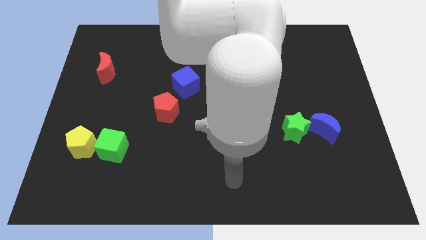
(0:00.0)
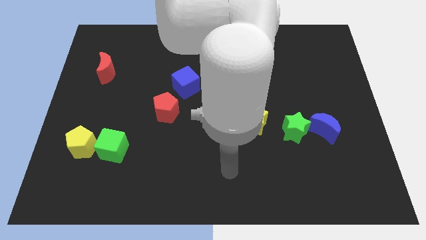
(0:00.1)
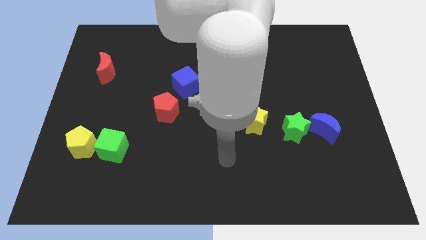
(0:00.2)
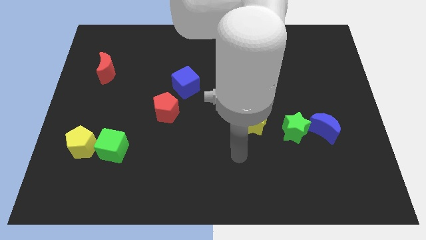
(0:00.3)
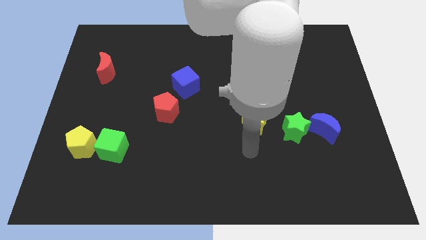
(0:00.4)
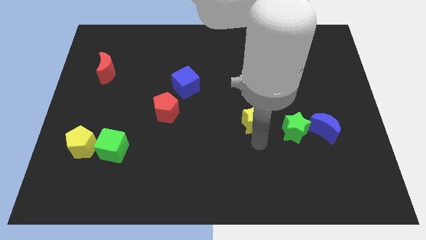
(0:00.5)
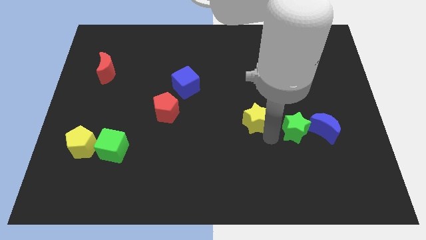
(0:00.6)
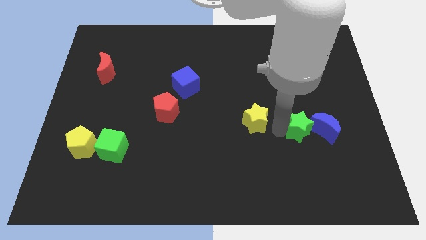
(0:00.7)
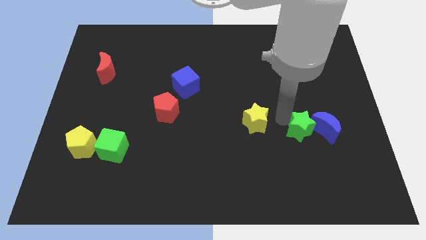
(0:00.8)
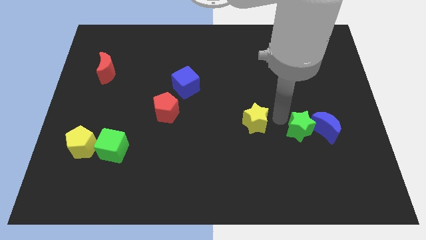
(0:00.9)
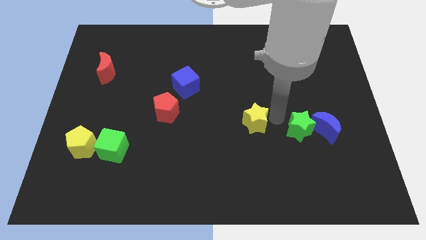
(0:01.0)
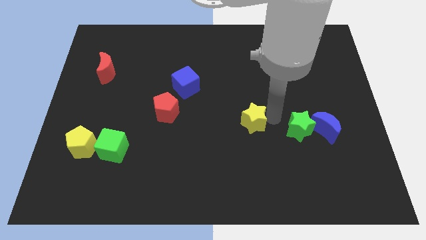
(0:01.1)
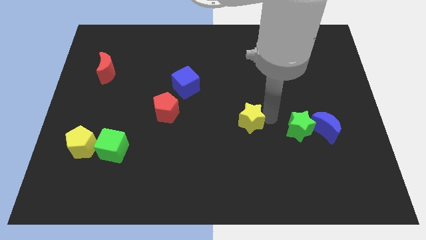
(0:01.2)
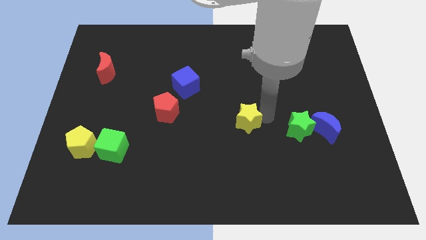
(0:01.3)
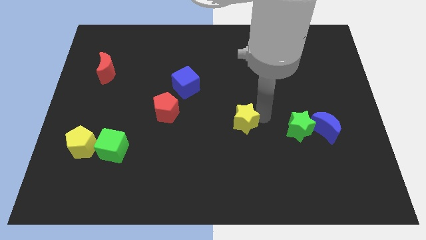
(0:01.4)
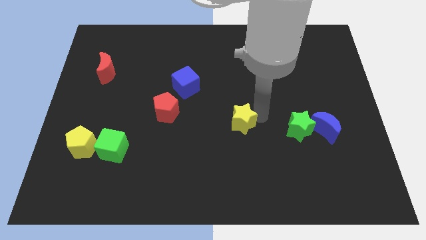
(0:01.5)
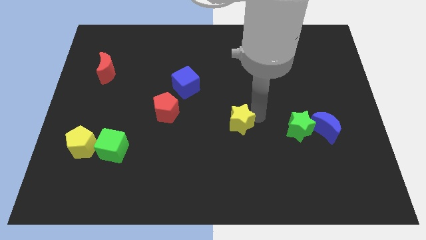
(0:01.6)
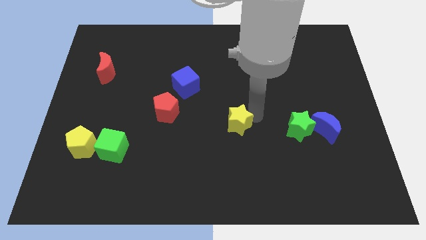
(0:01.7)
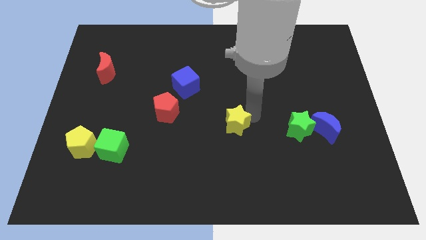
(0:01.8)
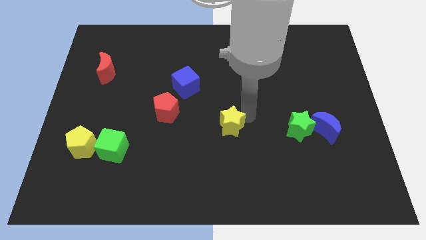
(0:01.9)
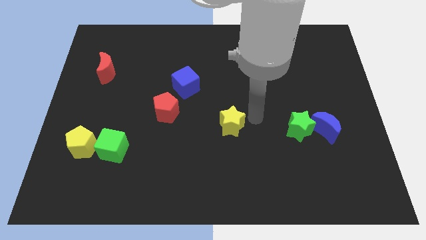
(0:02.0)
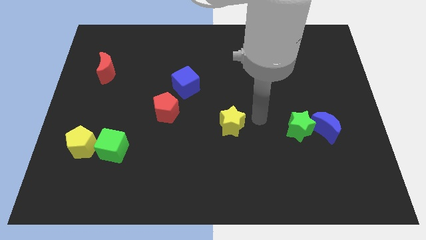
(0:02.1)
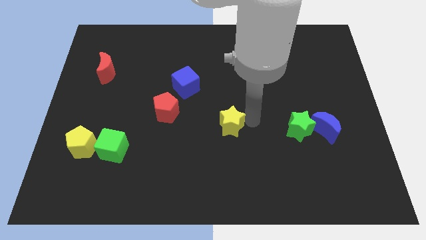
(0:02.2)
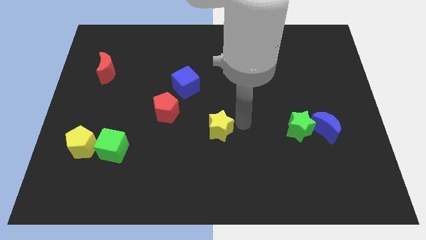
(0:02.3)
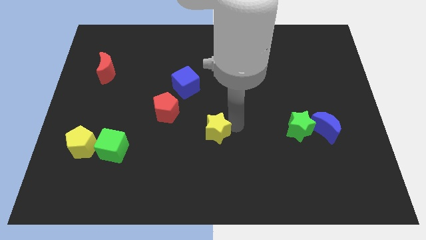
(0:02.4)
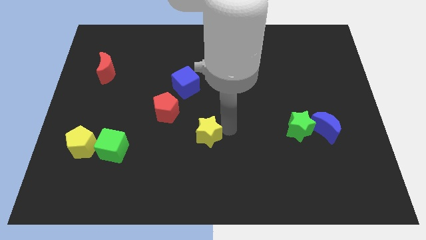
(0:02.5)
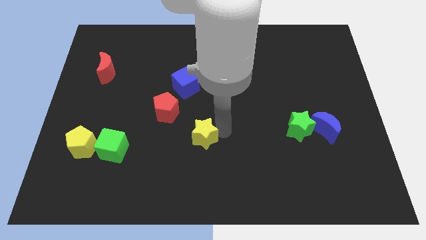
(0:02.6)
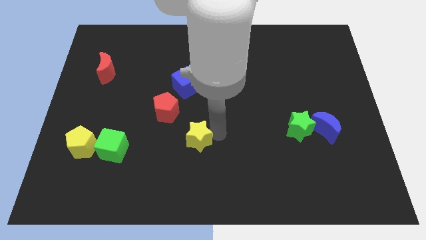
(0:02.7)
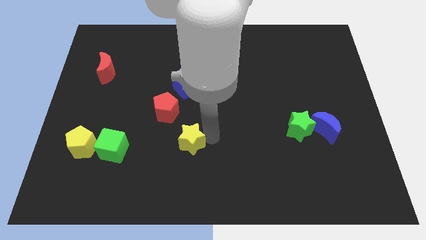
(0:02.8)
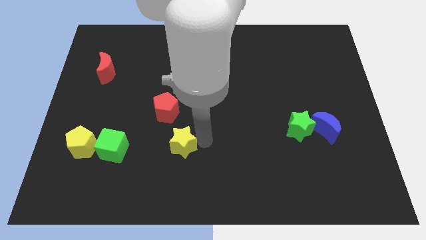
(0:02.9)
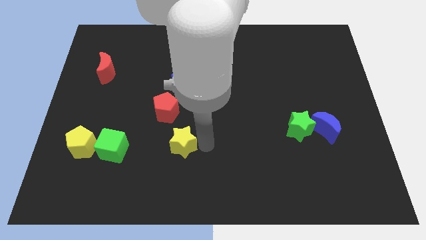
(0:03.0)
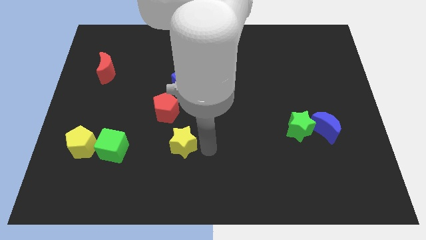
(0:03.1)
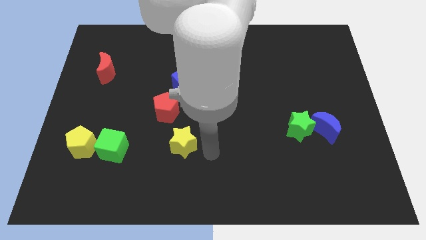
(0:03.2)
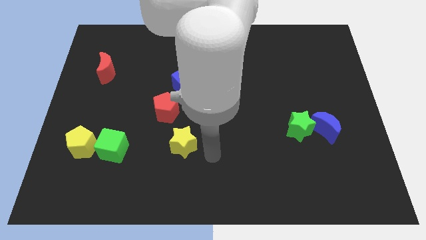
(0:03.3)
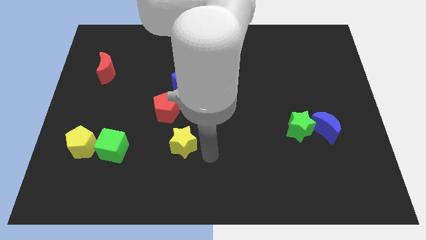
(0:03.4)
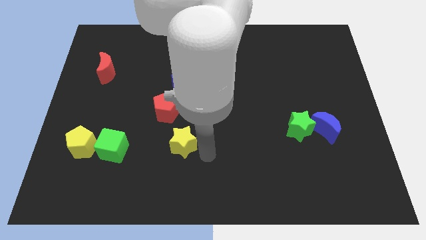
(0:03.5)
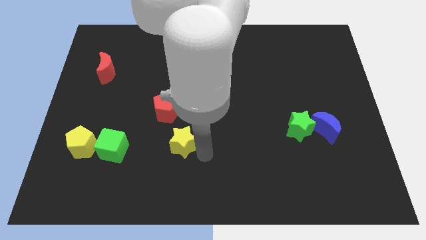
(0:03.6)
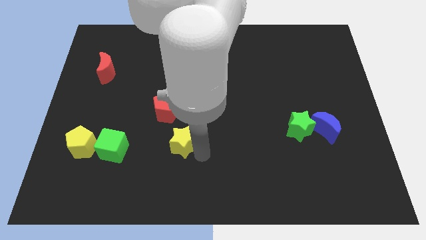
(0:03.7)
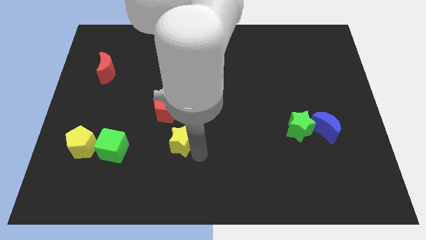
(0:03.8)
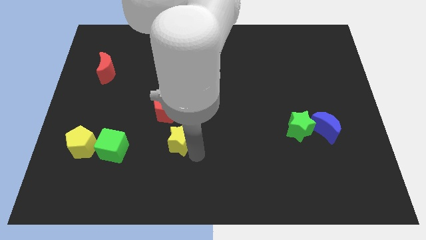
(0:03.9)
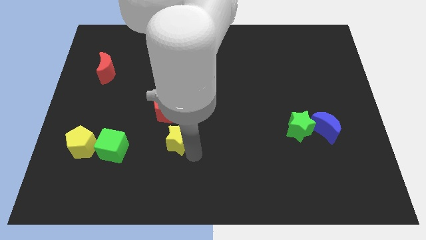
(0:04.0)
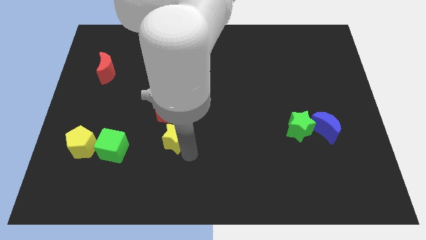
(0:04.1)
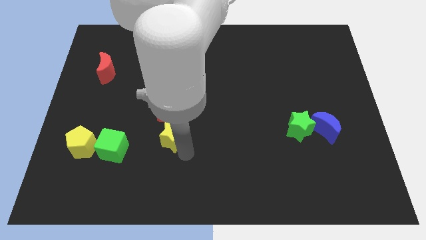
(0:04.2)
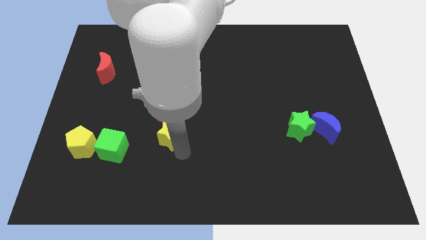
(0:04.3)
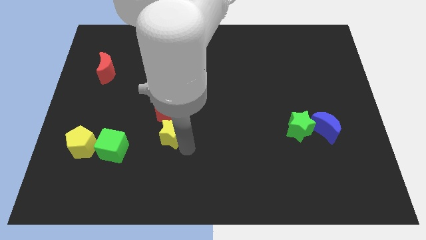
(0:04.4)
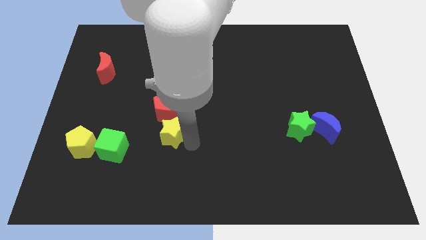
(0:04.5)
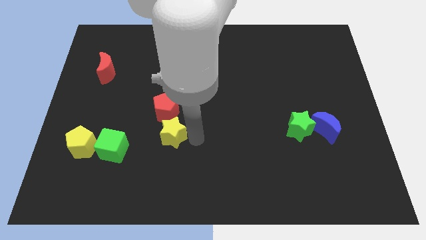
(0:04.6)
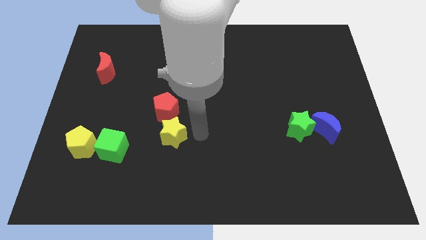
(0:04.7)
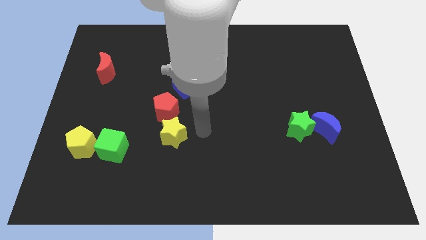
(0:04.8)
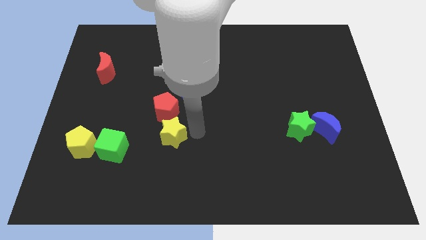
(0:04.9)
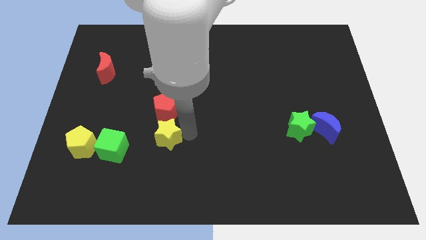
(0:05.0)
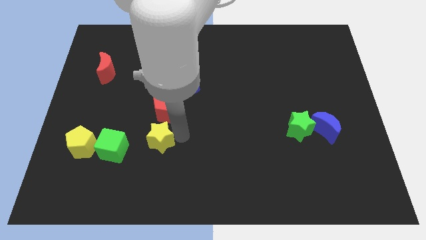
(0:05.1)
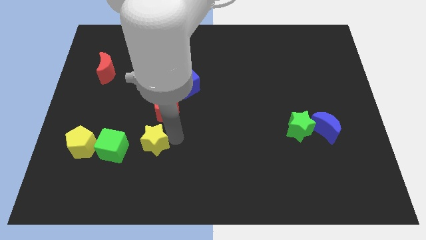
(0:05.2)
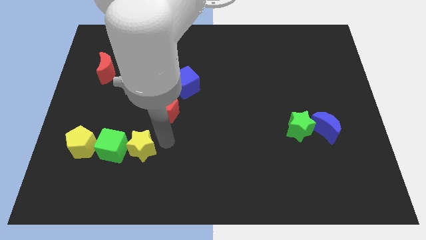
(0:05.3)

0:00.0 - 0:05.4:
put the yellow star next to the green cube

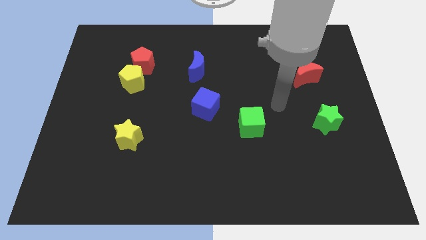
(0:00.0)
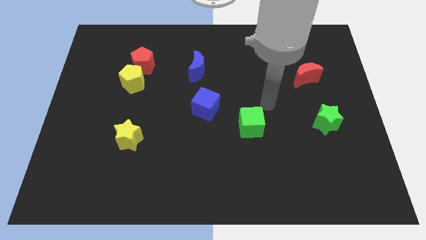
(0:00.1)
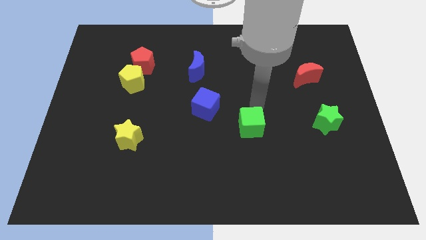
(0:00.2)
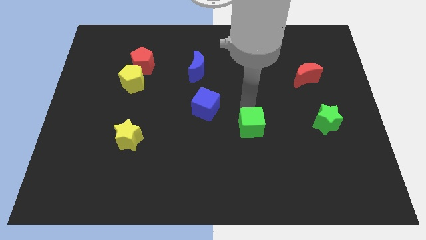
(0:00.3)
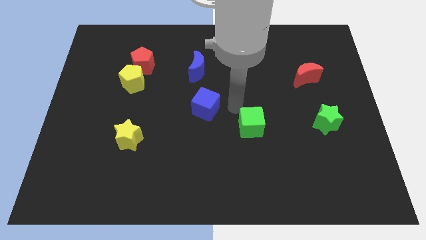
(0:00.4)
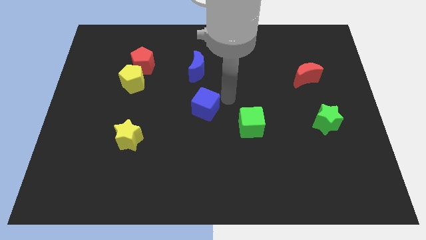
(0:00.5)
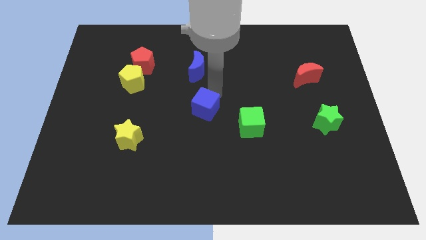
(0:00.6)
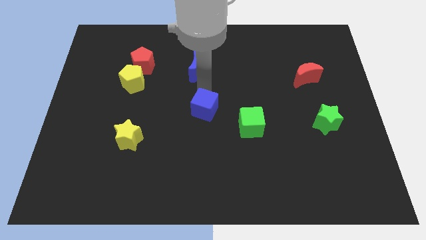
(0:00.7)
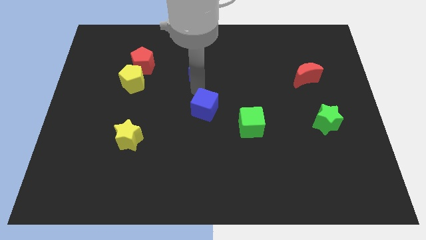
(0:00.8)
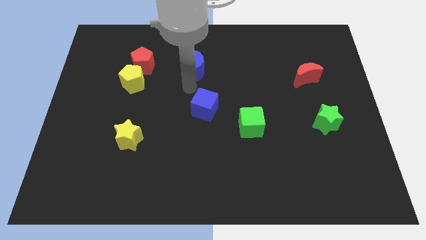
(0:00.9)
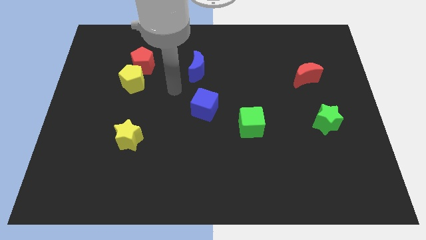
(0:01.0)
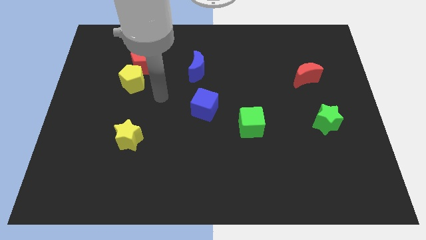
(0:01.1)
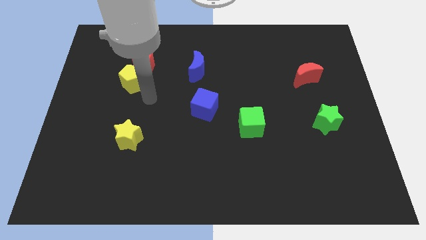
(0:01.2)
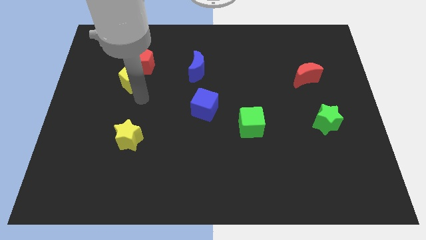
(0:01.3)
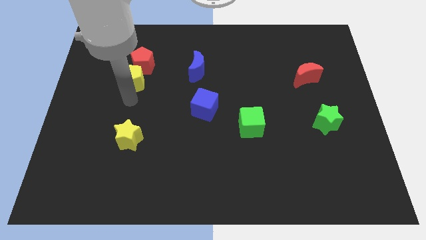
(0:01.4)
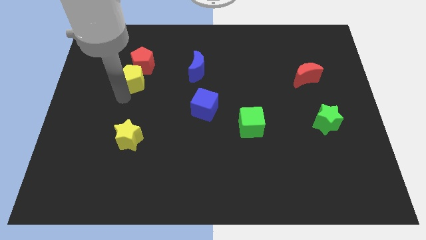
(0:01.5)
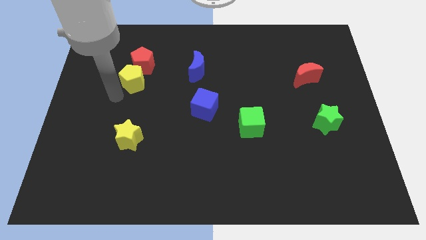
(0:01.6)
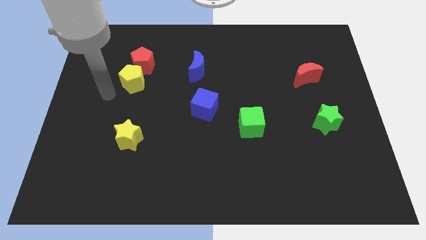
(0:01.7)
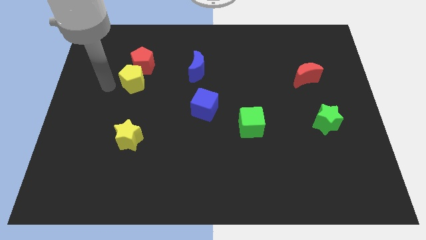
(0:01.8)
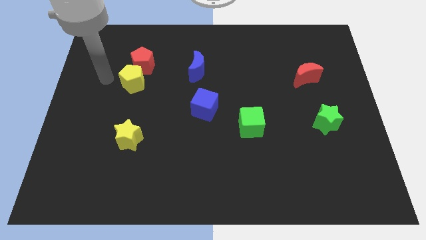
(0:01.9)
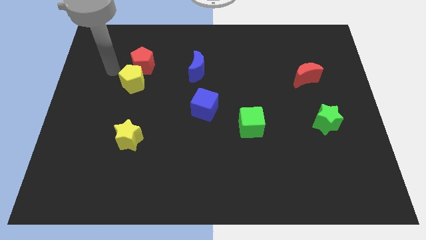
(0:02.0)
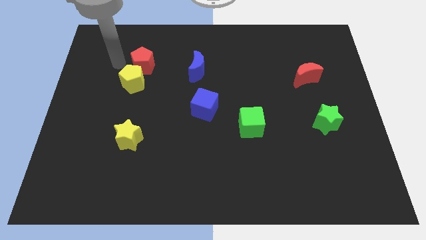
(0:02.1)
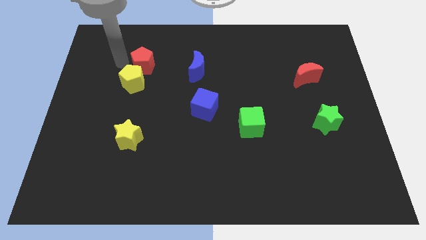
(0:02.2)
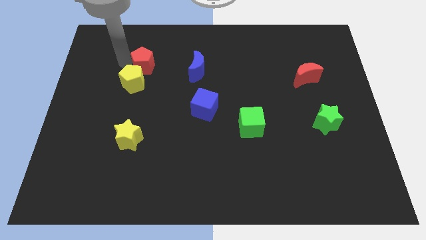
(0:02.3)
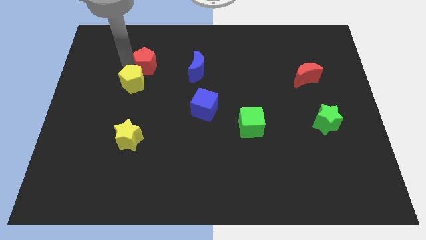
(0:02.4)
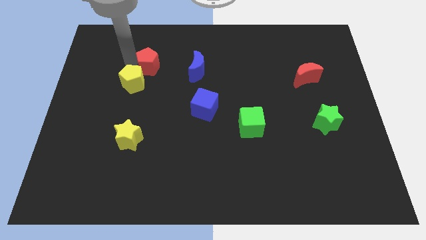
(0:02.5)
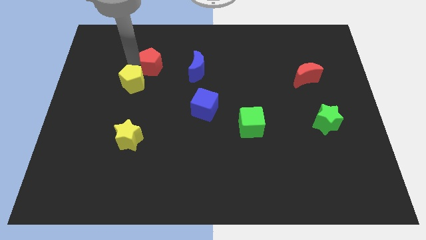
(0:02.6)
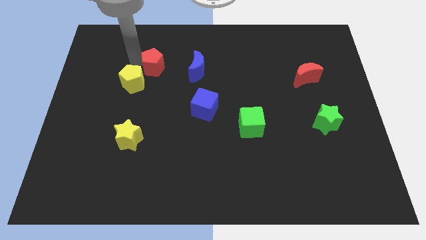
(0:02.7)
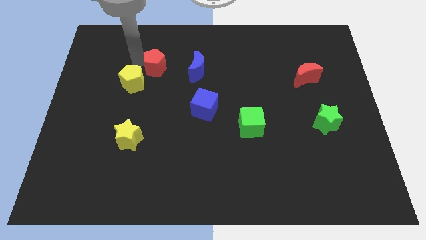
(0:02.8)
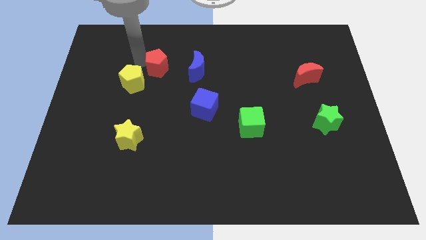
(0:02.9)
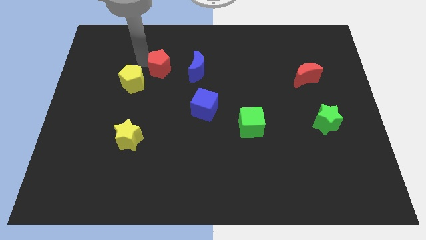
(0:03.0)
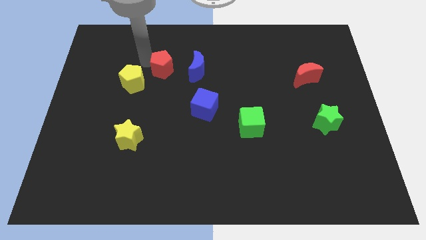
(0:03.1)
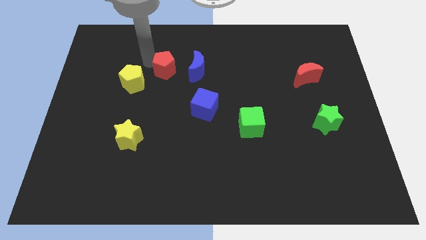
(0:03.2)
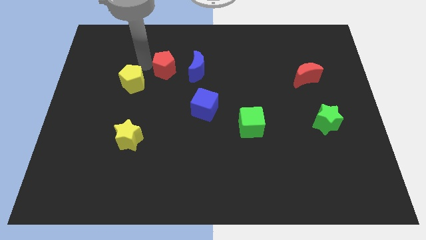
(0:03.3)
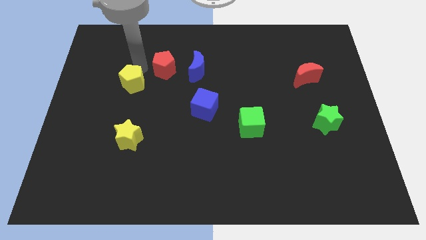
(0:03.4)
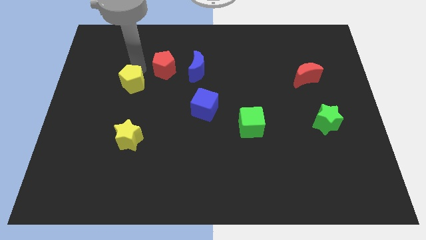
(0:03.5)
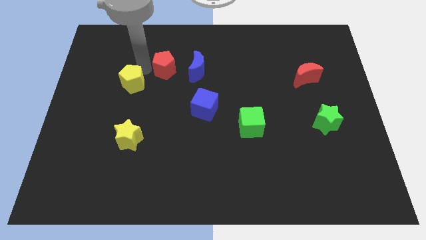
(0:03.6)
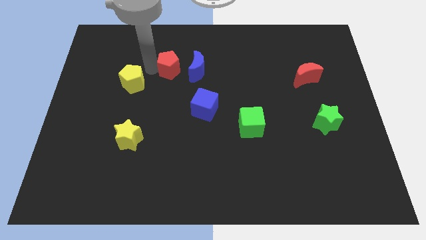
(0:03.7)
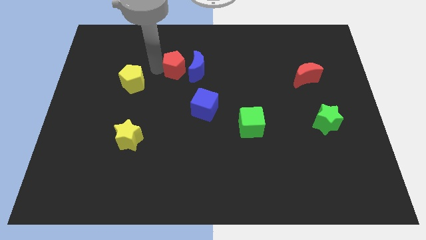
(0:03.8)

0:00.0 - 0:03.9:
move the red pentagon close to the blue moon
